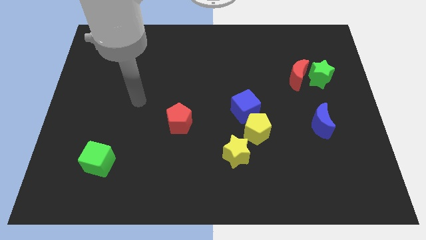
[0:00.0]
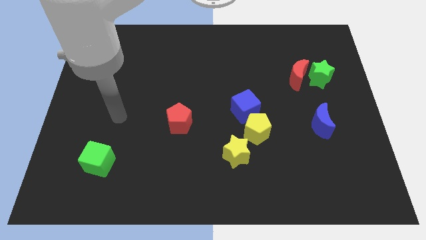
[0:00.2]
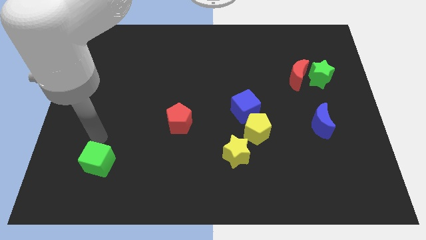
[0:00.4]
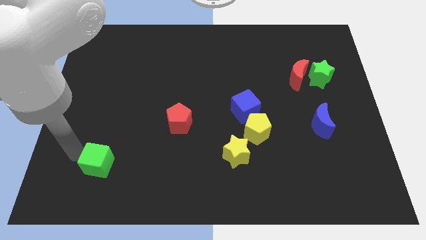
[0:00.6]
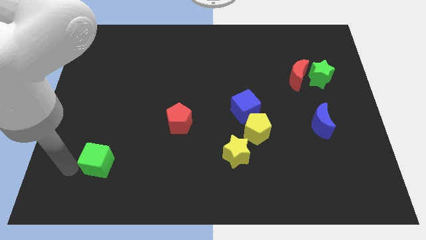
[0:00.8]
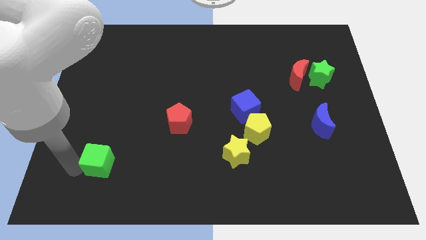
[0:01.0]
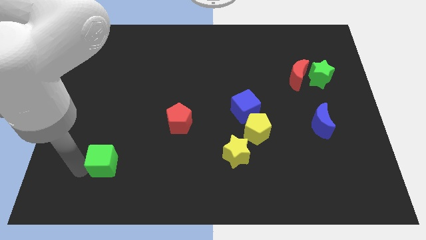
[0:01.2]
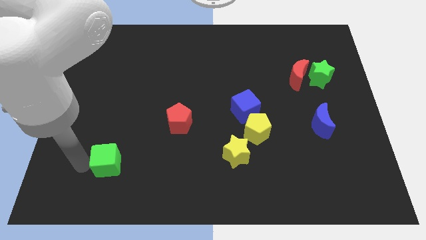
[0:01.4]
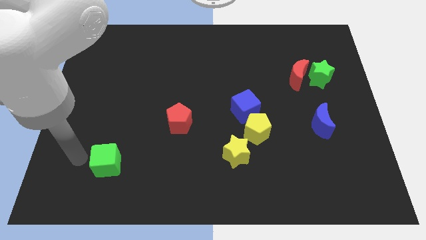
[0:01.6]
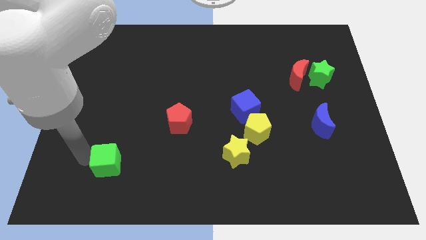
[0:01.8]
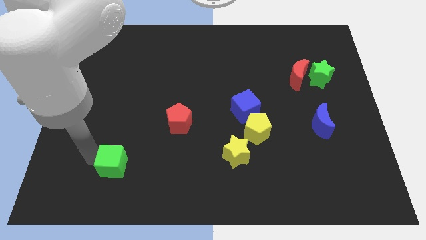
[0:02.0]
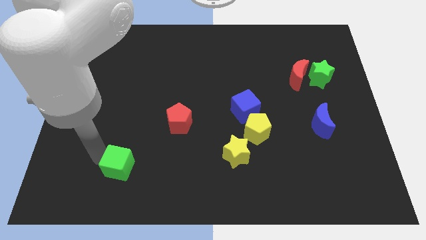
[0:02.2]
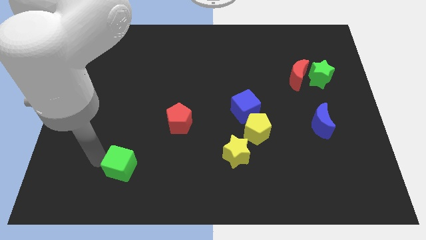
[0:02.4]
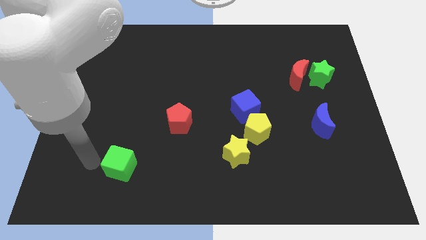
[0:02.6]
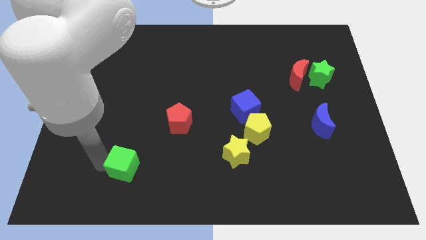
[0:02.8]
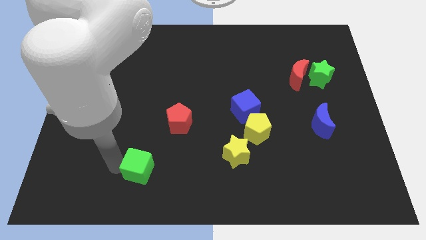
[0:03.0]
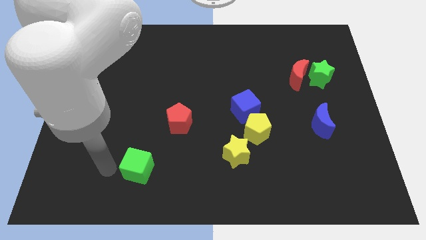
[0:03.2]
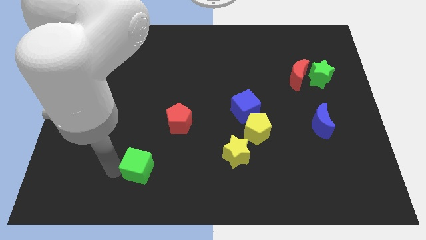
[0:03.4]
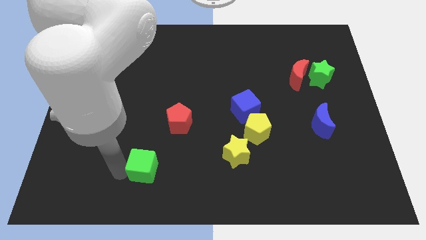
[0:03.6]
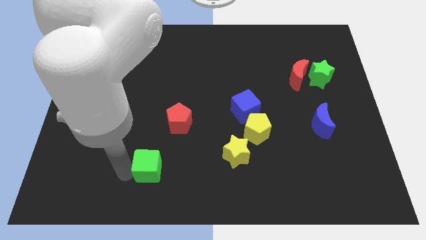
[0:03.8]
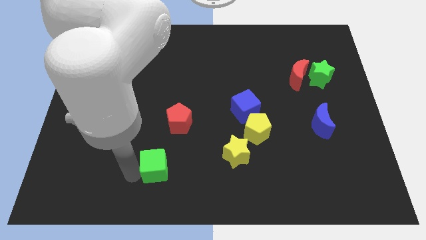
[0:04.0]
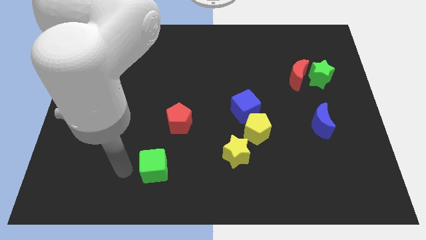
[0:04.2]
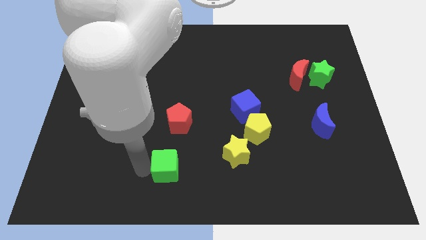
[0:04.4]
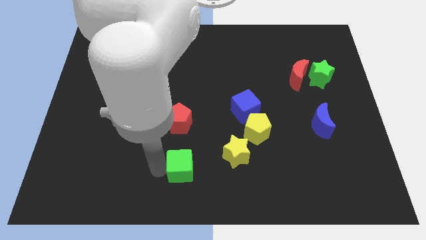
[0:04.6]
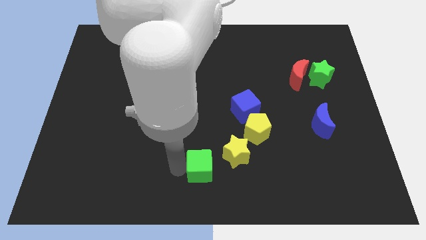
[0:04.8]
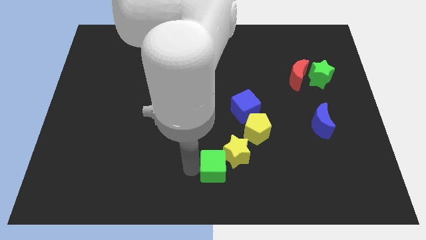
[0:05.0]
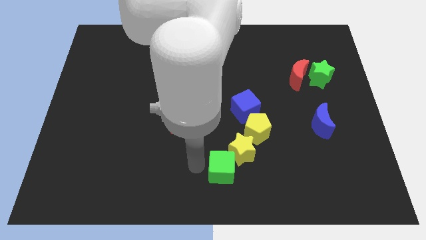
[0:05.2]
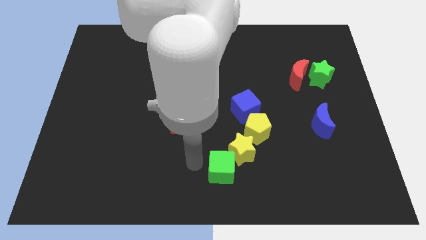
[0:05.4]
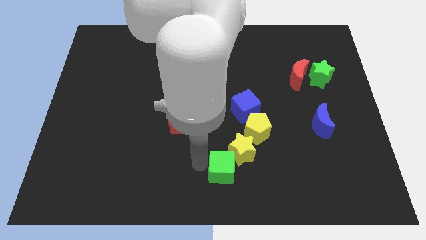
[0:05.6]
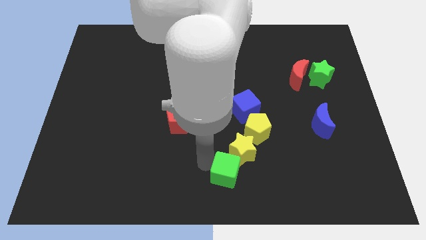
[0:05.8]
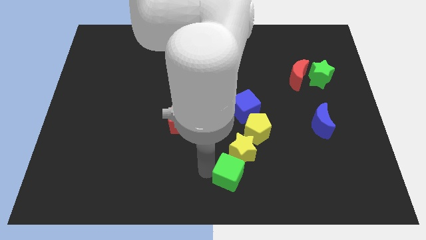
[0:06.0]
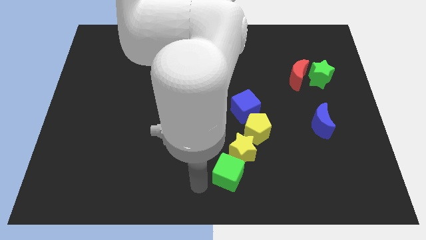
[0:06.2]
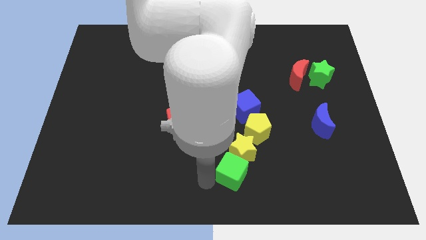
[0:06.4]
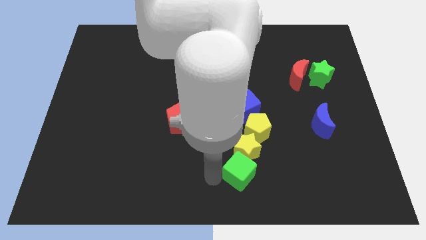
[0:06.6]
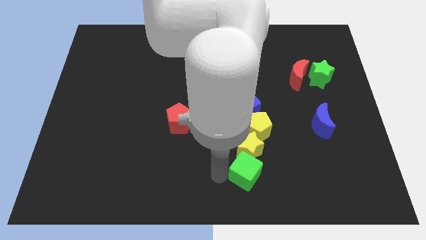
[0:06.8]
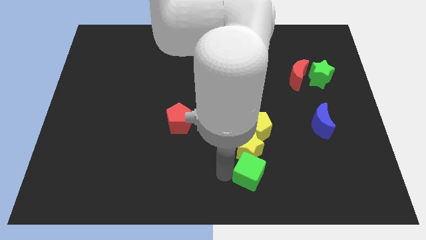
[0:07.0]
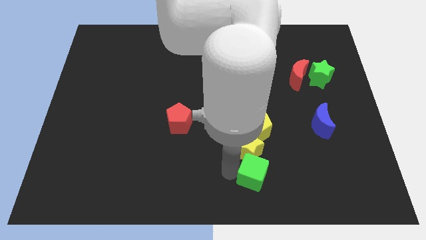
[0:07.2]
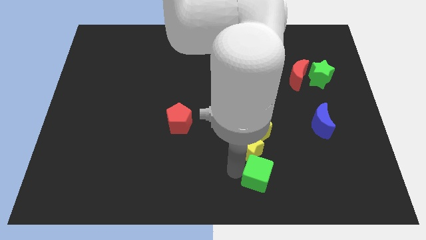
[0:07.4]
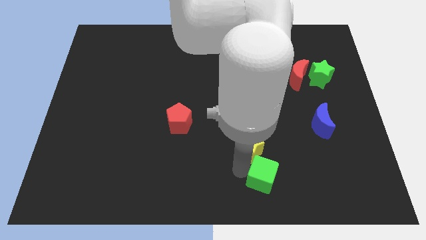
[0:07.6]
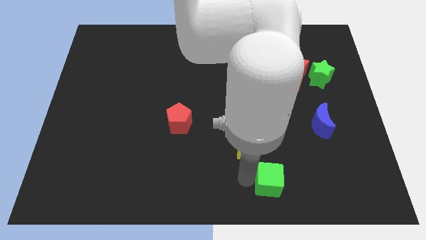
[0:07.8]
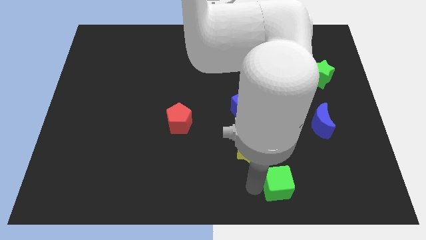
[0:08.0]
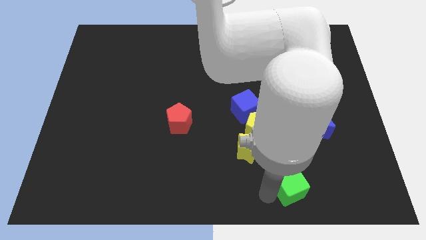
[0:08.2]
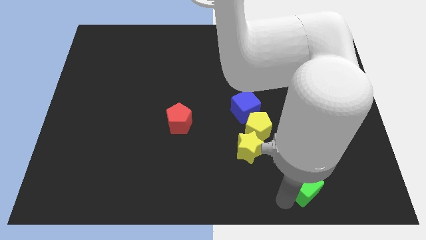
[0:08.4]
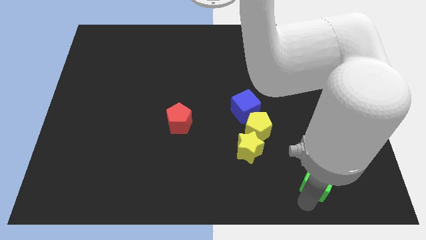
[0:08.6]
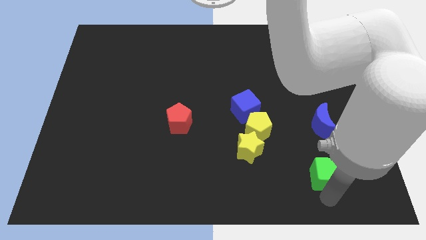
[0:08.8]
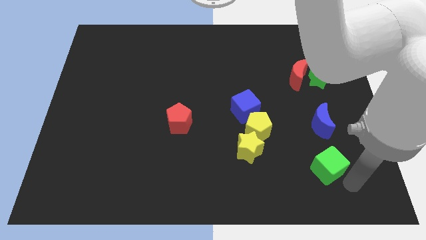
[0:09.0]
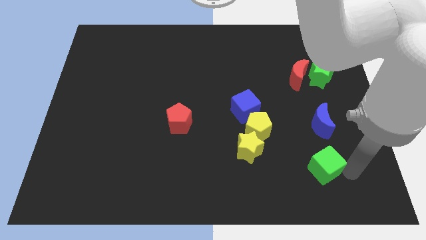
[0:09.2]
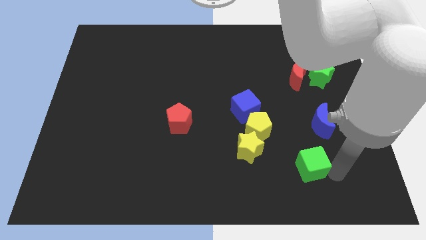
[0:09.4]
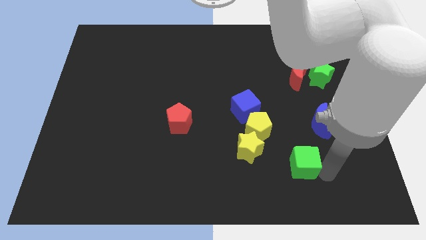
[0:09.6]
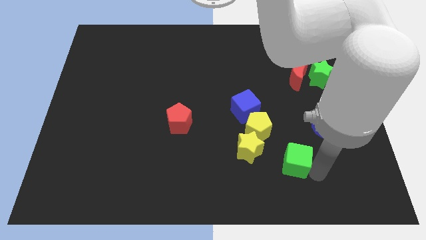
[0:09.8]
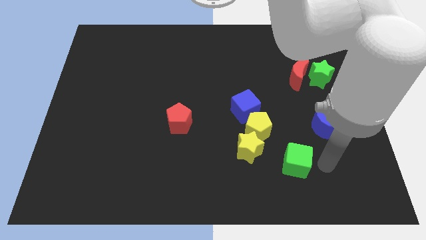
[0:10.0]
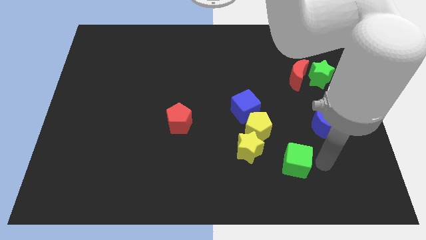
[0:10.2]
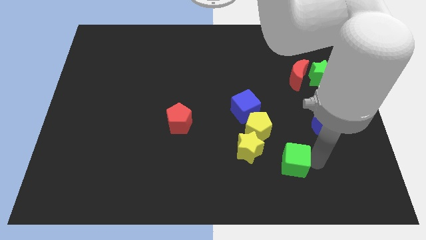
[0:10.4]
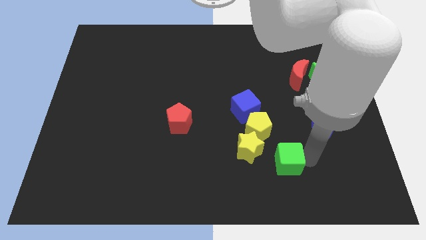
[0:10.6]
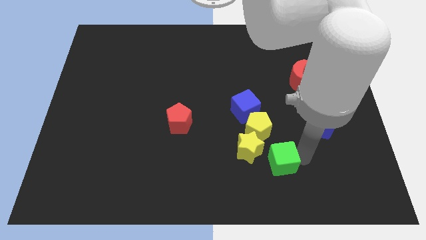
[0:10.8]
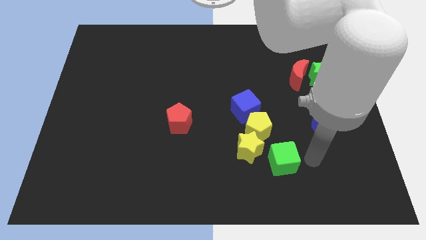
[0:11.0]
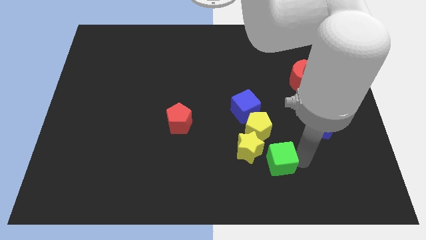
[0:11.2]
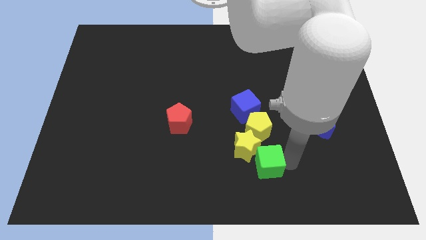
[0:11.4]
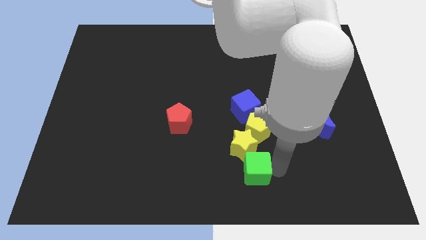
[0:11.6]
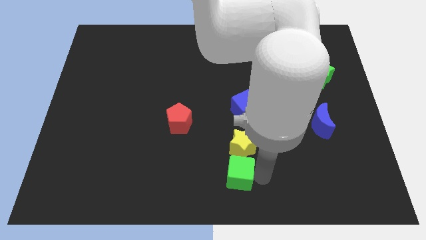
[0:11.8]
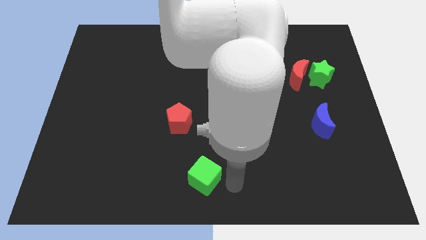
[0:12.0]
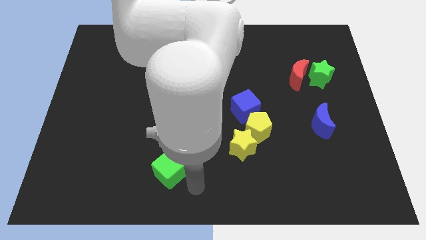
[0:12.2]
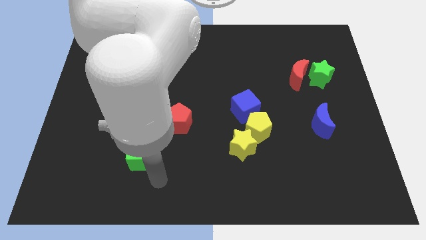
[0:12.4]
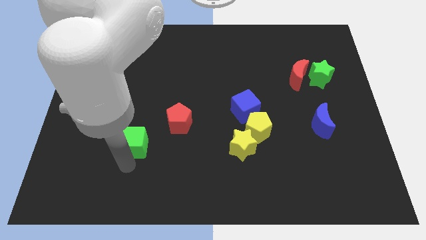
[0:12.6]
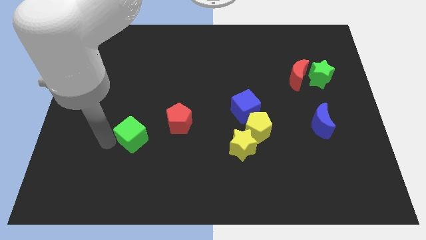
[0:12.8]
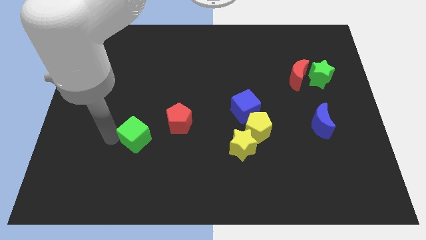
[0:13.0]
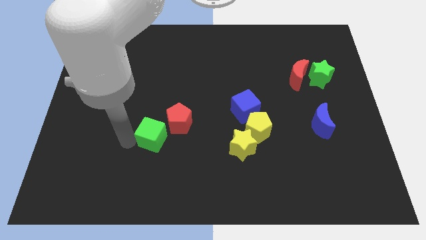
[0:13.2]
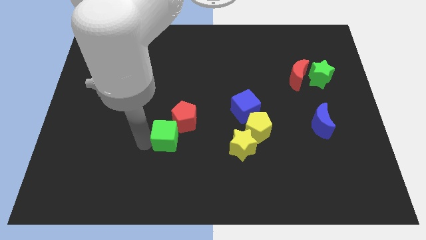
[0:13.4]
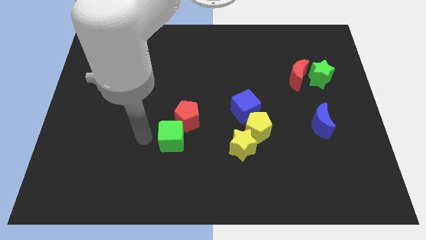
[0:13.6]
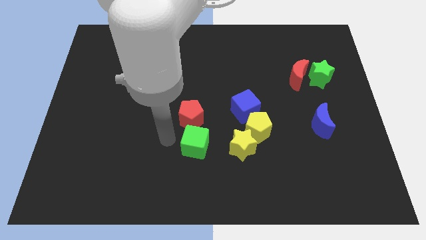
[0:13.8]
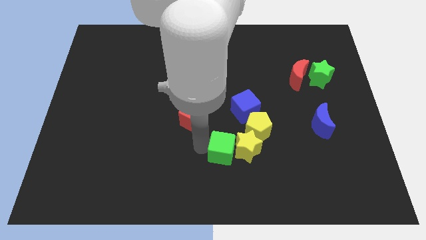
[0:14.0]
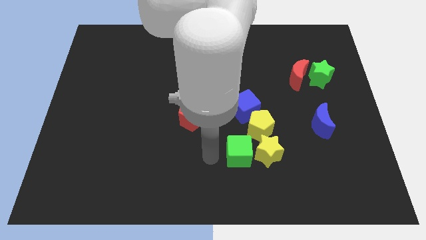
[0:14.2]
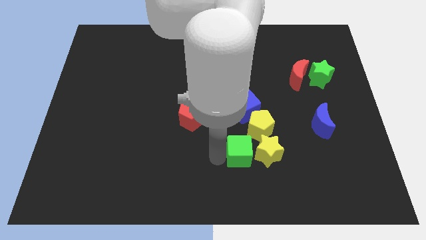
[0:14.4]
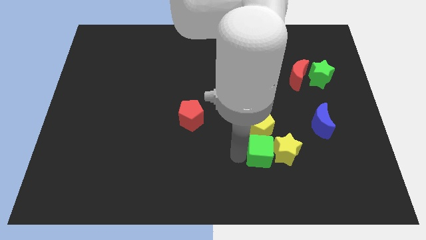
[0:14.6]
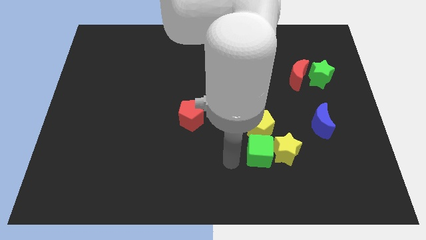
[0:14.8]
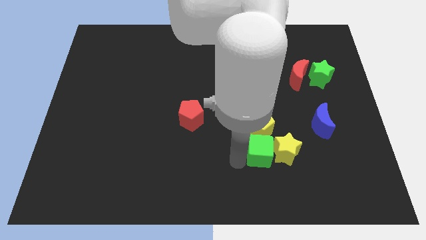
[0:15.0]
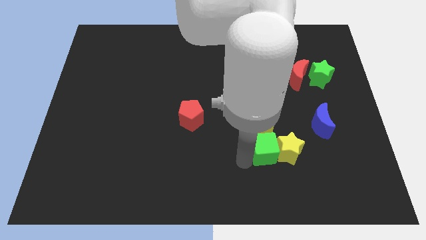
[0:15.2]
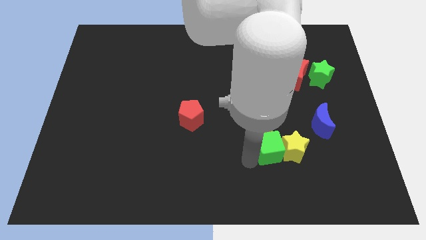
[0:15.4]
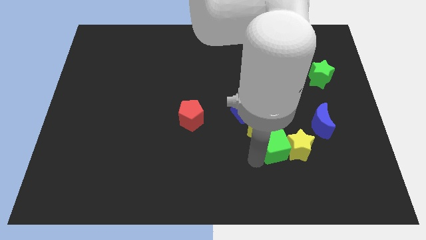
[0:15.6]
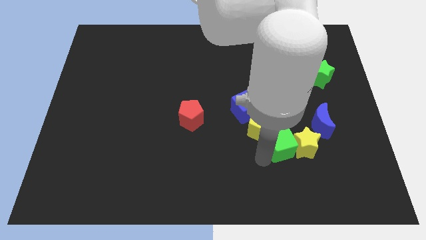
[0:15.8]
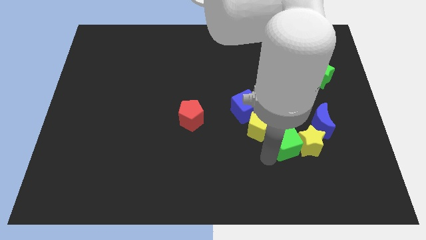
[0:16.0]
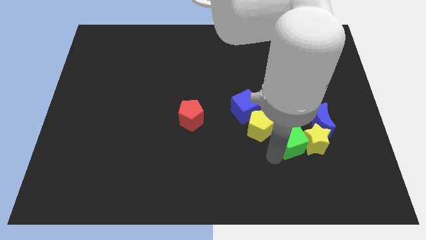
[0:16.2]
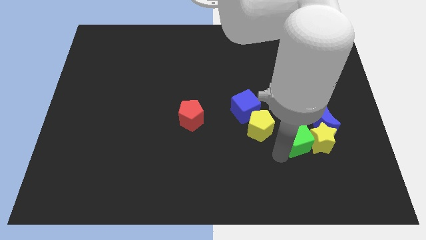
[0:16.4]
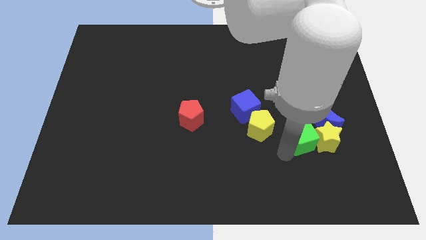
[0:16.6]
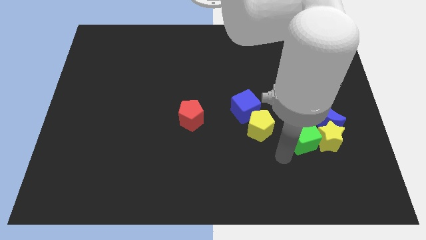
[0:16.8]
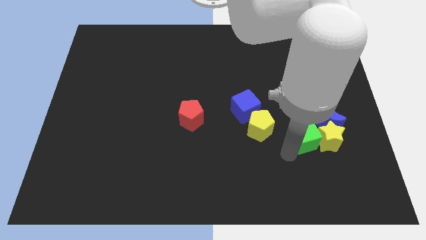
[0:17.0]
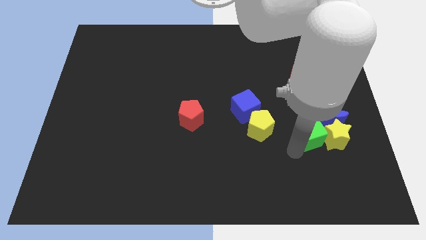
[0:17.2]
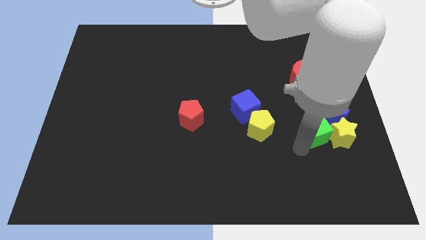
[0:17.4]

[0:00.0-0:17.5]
move the green cube to the blue moon
